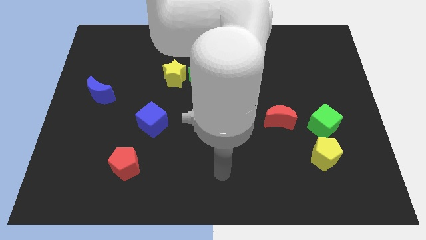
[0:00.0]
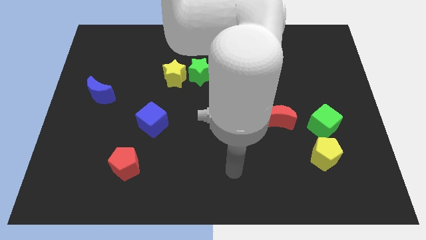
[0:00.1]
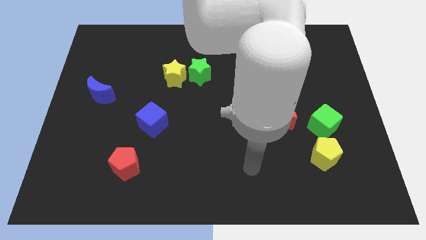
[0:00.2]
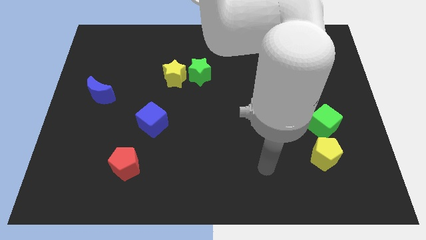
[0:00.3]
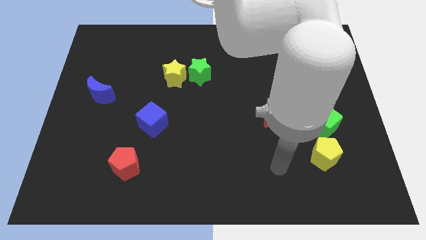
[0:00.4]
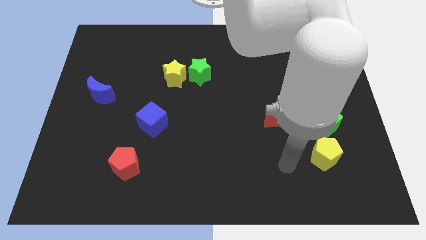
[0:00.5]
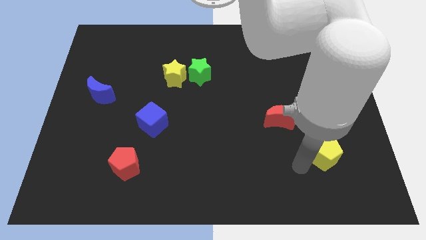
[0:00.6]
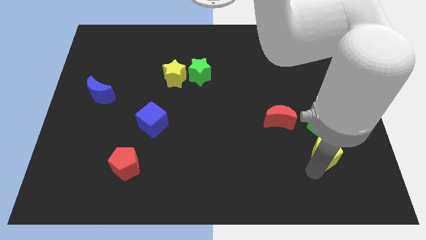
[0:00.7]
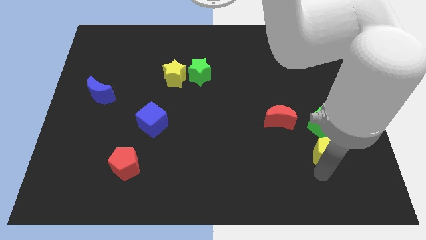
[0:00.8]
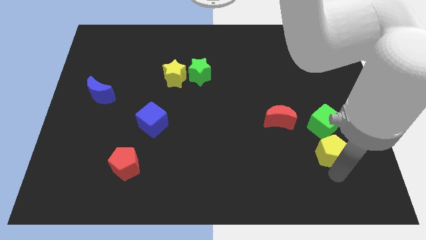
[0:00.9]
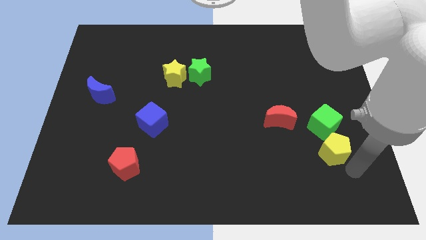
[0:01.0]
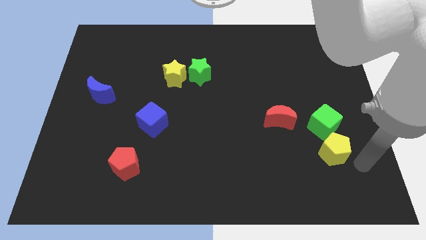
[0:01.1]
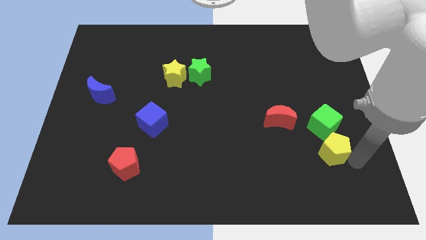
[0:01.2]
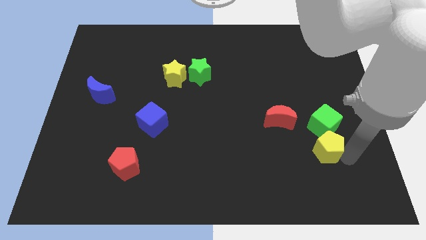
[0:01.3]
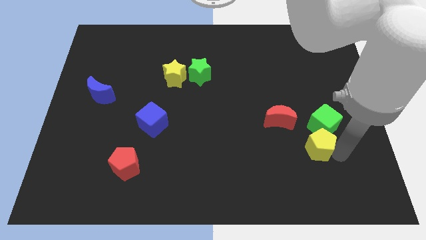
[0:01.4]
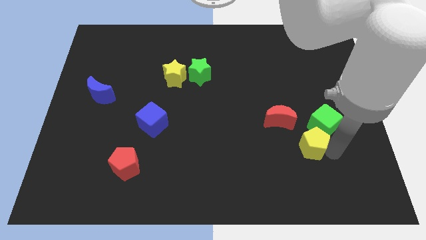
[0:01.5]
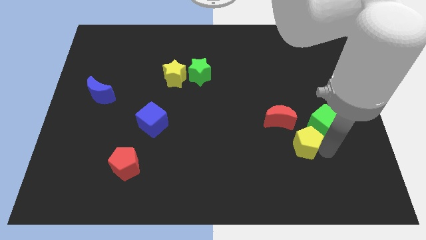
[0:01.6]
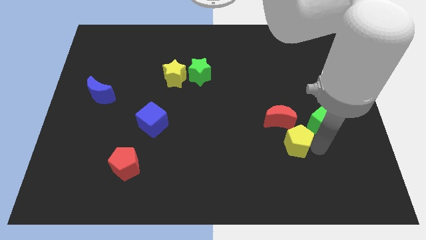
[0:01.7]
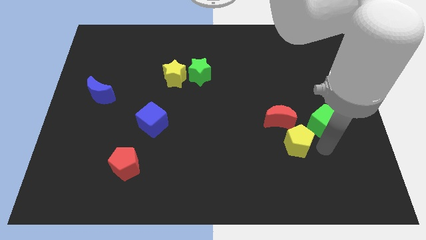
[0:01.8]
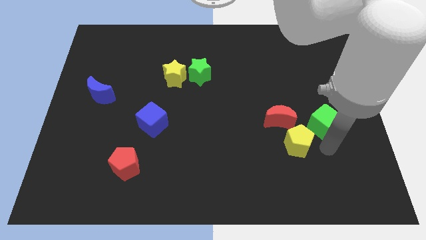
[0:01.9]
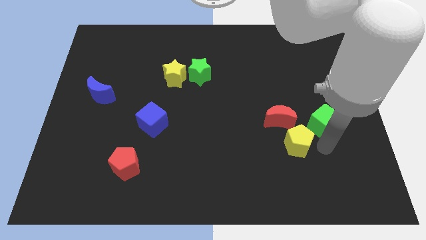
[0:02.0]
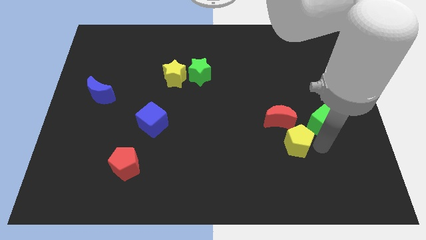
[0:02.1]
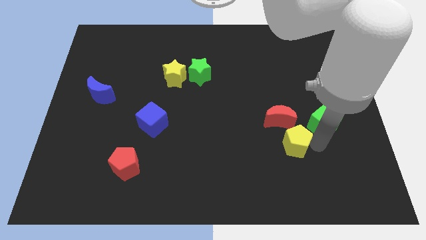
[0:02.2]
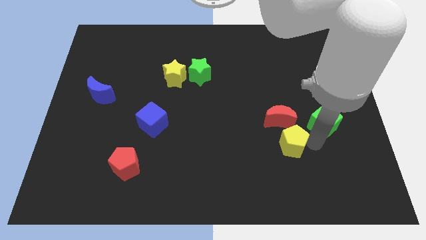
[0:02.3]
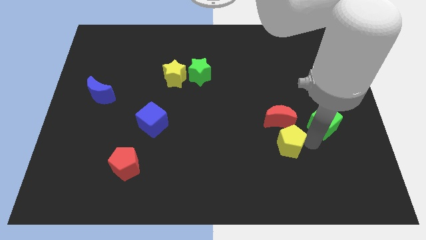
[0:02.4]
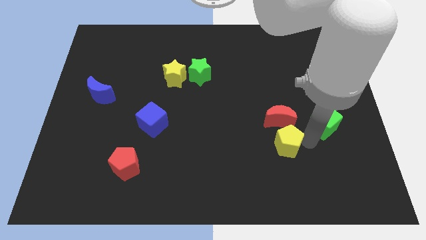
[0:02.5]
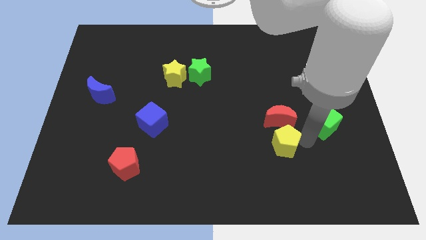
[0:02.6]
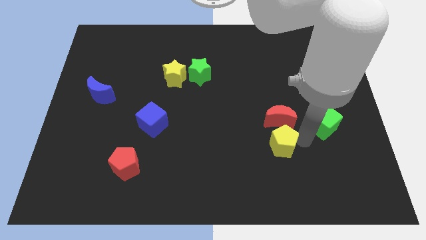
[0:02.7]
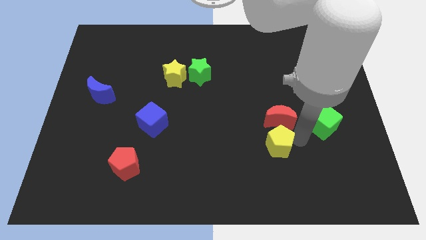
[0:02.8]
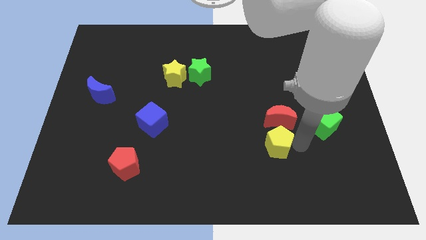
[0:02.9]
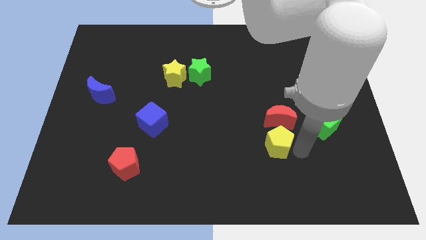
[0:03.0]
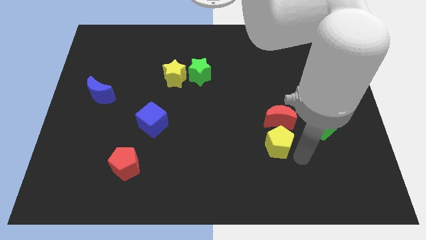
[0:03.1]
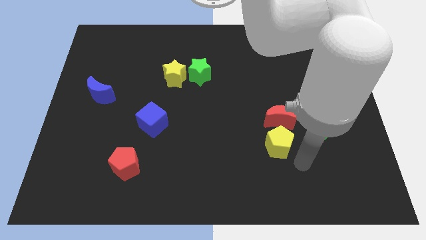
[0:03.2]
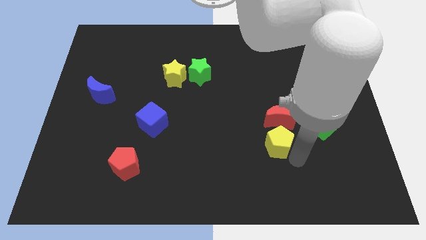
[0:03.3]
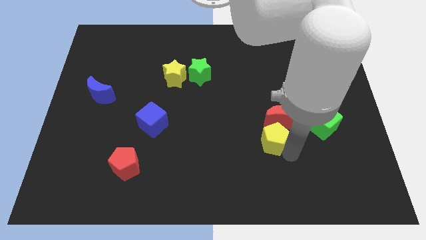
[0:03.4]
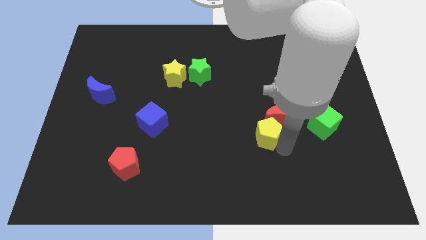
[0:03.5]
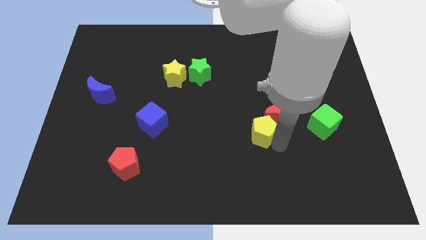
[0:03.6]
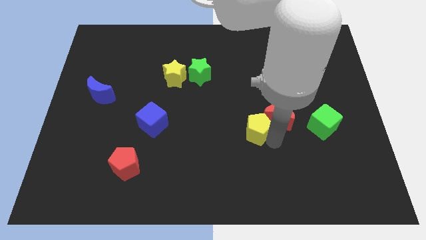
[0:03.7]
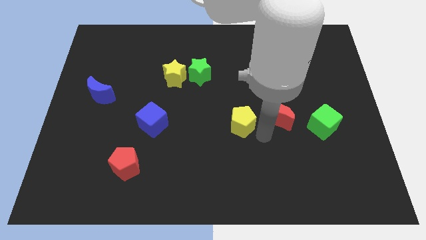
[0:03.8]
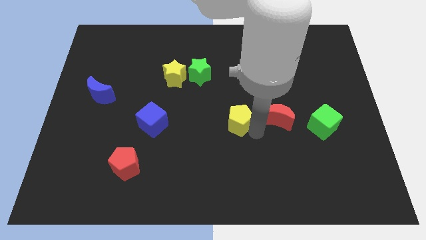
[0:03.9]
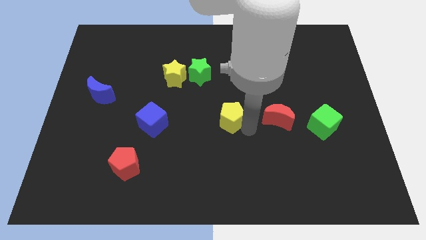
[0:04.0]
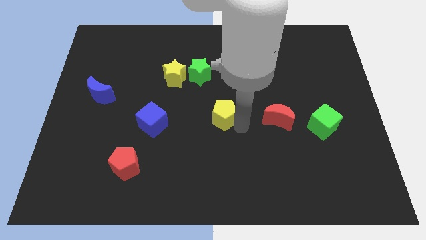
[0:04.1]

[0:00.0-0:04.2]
move the yellow pentagon upwards and then left

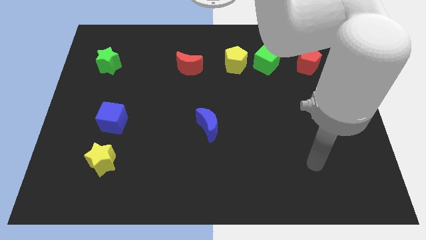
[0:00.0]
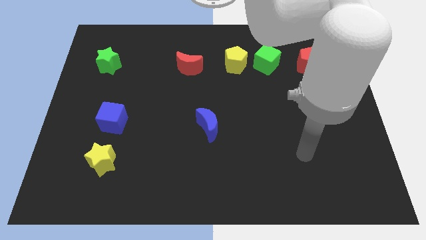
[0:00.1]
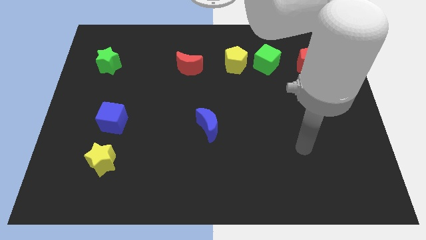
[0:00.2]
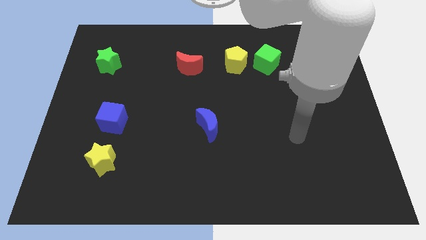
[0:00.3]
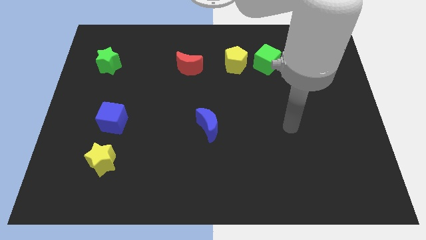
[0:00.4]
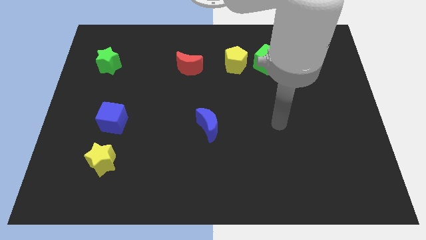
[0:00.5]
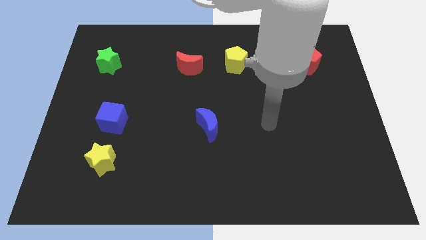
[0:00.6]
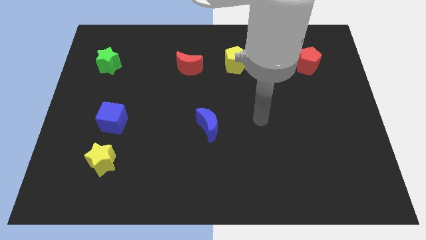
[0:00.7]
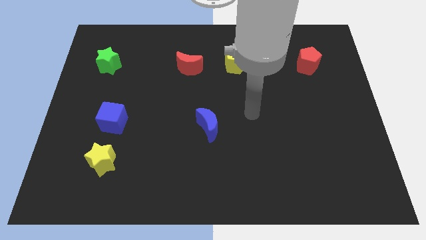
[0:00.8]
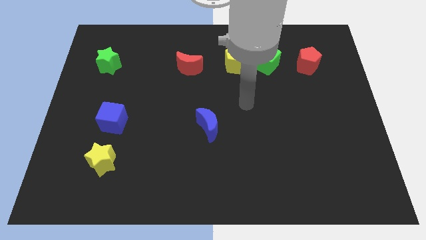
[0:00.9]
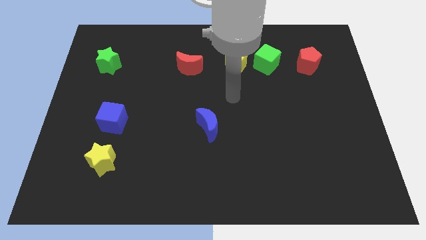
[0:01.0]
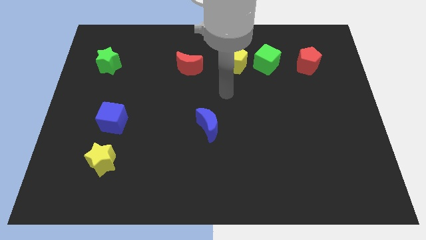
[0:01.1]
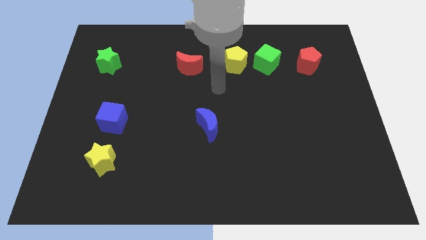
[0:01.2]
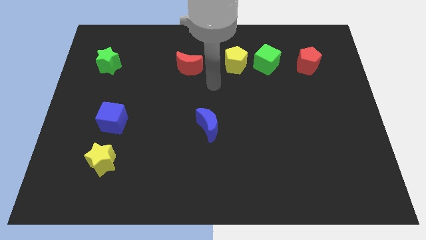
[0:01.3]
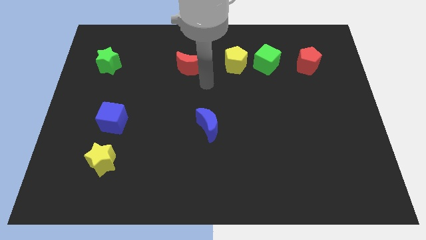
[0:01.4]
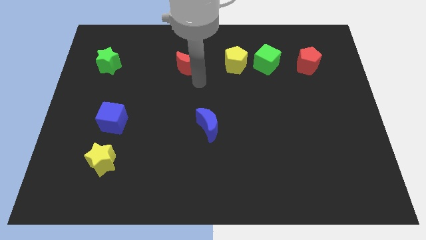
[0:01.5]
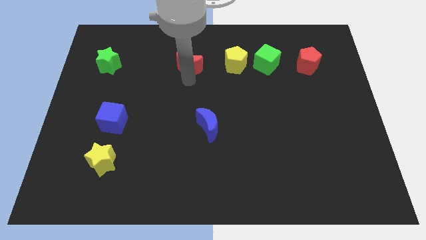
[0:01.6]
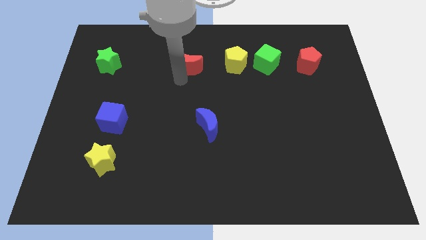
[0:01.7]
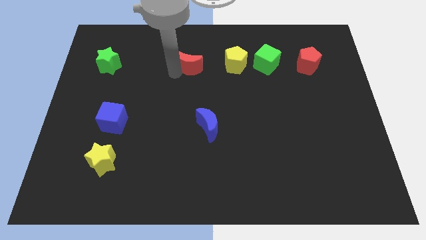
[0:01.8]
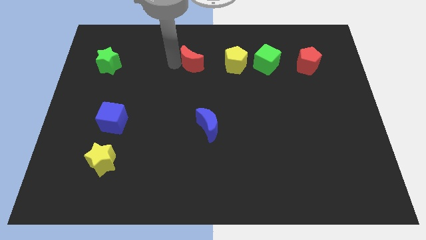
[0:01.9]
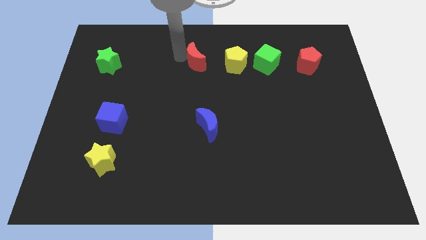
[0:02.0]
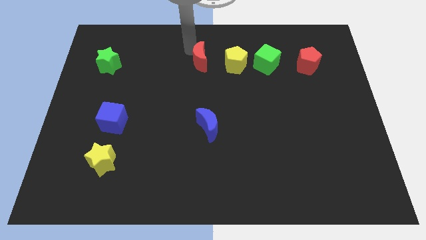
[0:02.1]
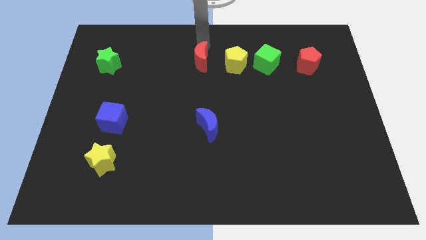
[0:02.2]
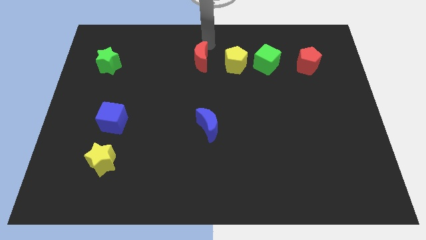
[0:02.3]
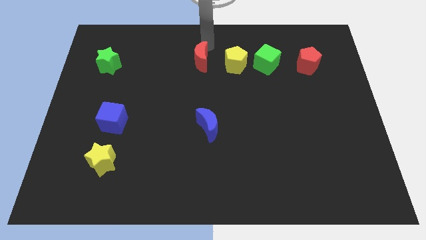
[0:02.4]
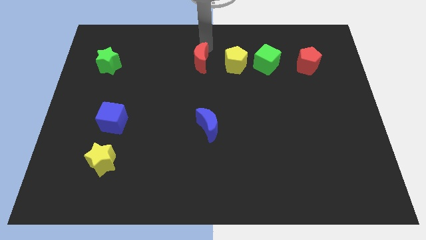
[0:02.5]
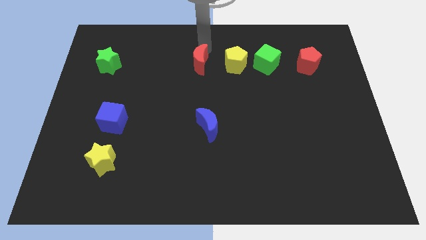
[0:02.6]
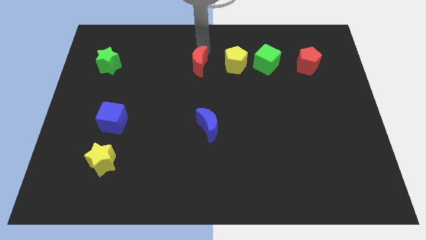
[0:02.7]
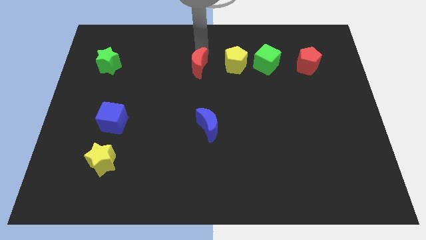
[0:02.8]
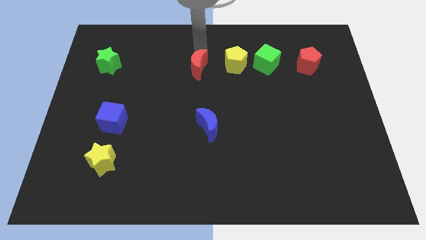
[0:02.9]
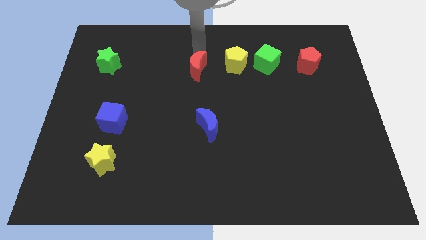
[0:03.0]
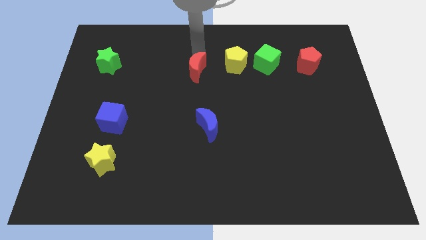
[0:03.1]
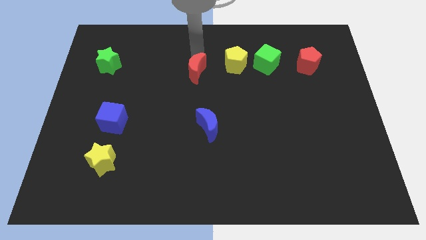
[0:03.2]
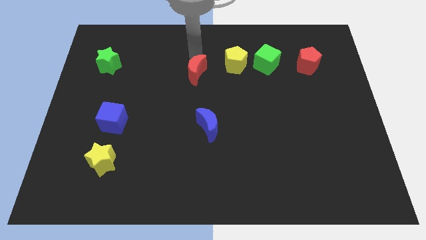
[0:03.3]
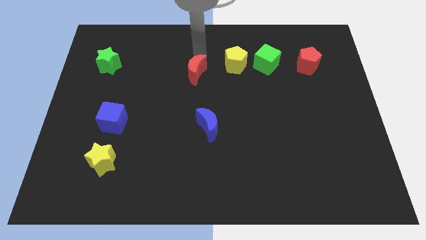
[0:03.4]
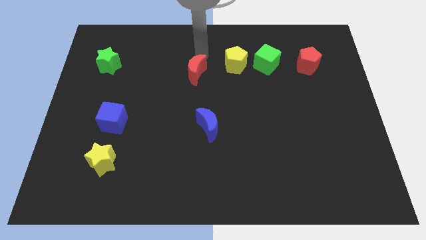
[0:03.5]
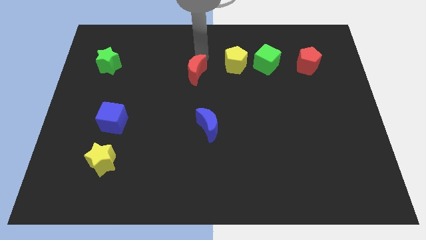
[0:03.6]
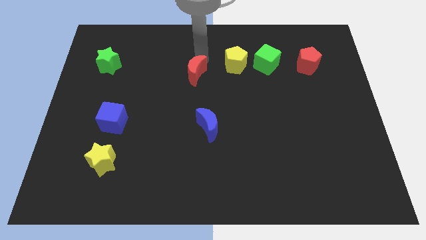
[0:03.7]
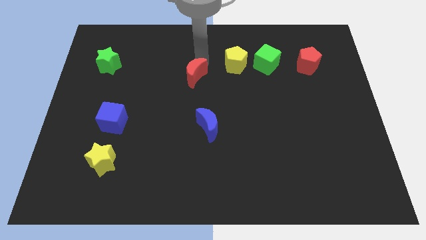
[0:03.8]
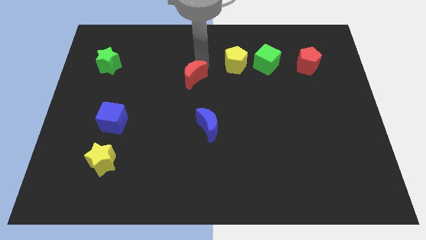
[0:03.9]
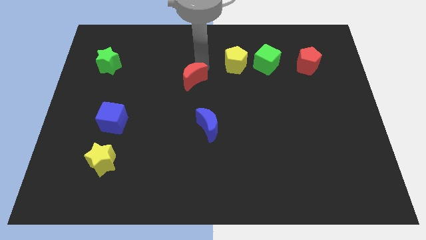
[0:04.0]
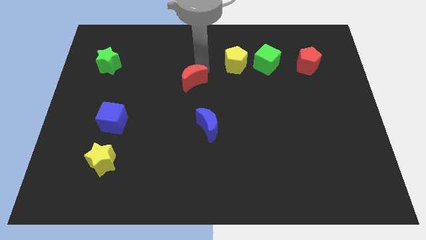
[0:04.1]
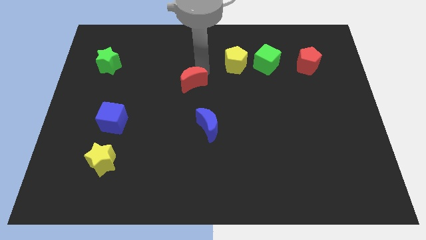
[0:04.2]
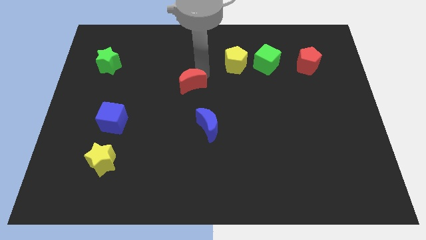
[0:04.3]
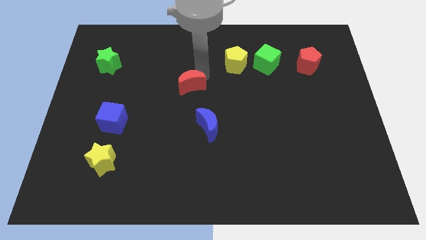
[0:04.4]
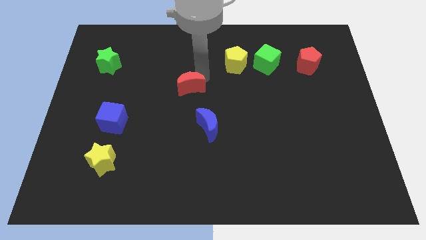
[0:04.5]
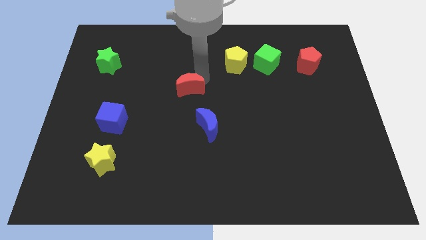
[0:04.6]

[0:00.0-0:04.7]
slide the red moon downwards a little bit
